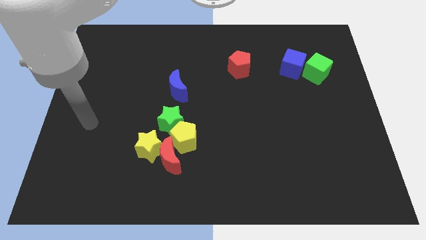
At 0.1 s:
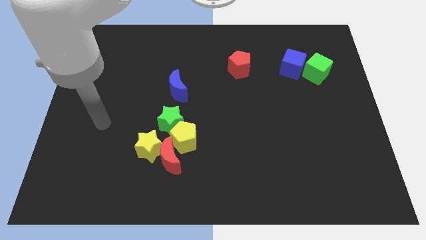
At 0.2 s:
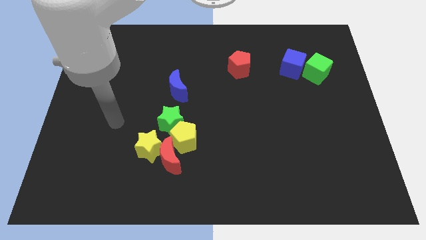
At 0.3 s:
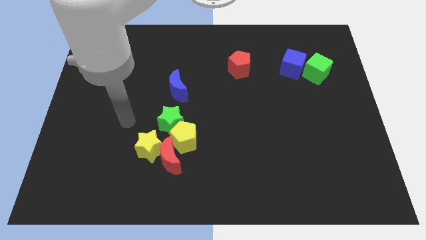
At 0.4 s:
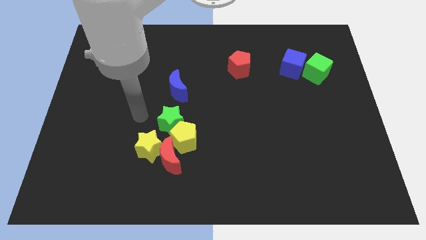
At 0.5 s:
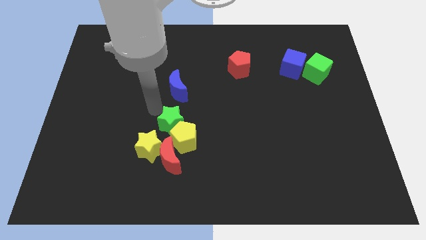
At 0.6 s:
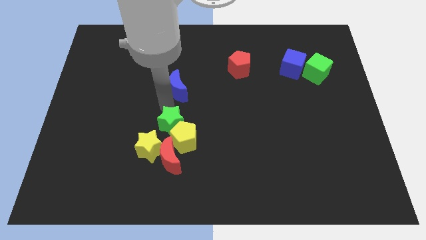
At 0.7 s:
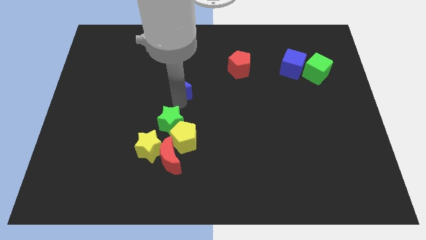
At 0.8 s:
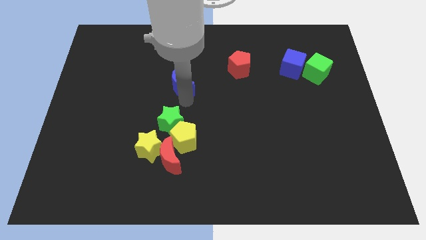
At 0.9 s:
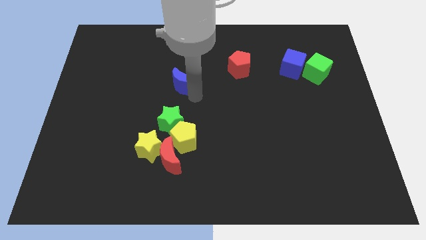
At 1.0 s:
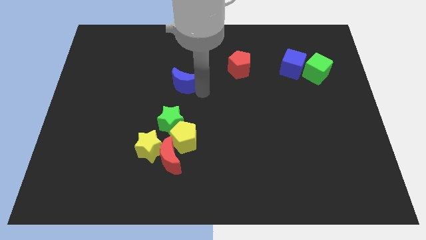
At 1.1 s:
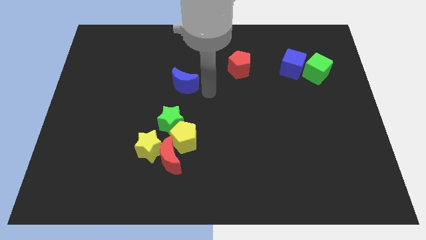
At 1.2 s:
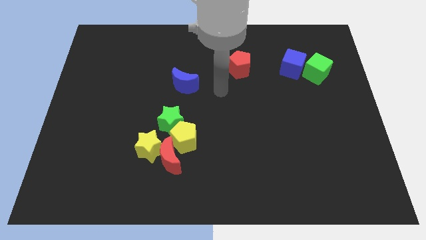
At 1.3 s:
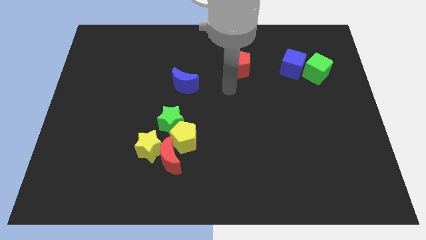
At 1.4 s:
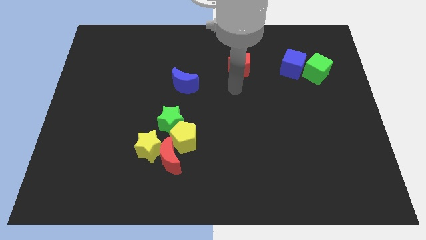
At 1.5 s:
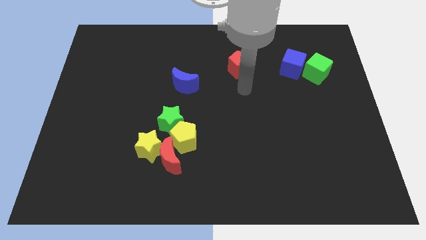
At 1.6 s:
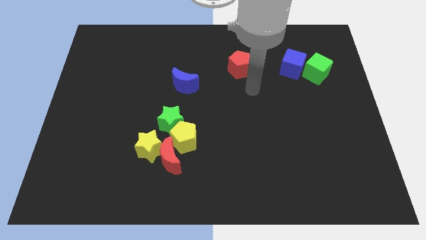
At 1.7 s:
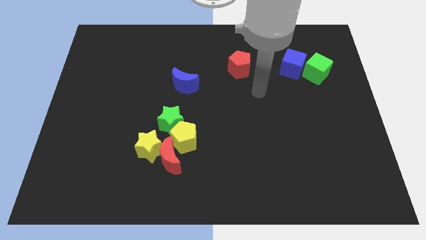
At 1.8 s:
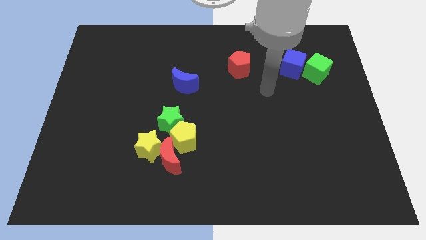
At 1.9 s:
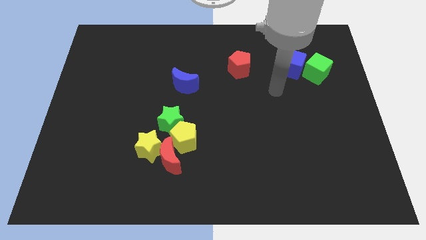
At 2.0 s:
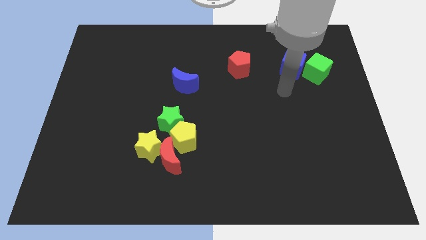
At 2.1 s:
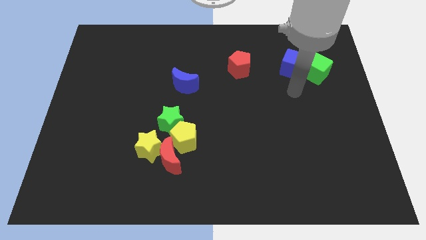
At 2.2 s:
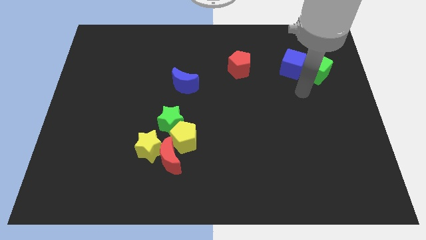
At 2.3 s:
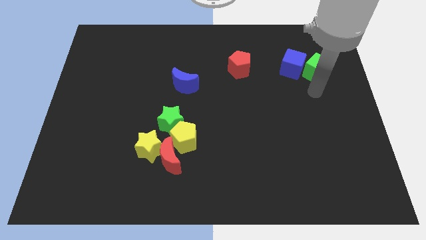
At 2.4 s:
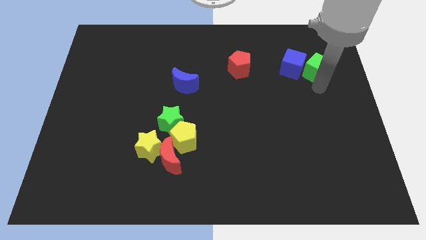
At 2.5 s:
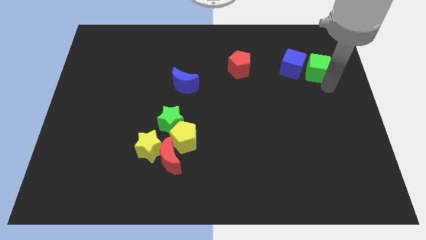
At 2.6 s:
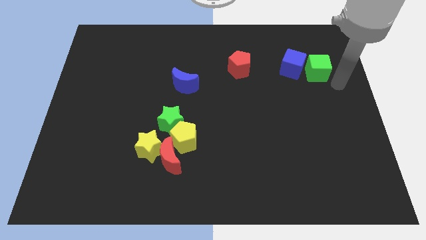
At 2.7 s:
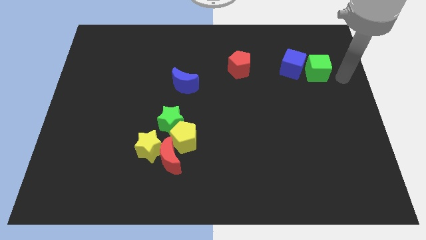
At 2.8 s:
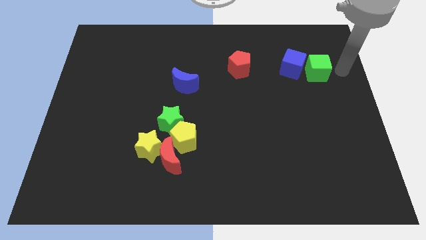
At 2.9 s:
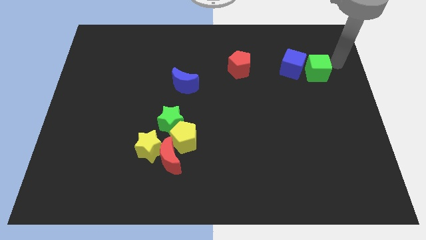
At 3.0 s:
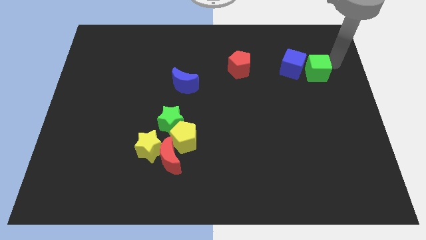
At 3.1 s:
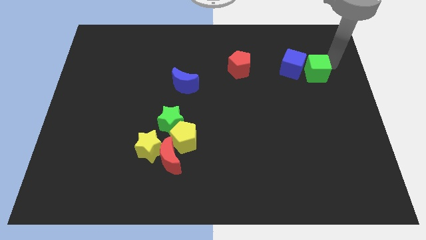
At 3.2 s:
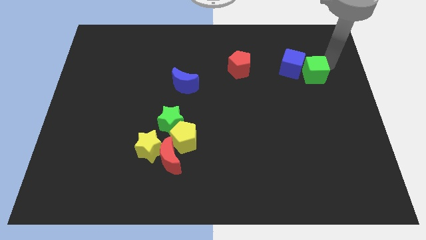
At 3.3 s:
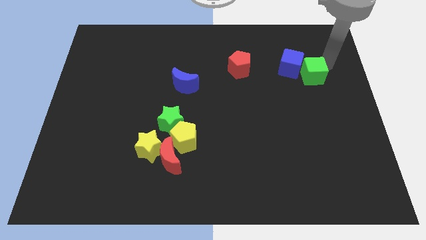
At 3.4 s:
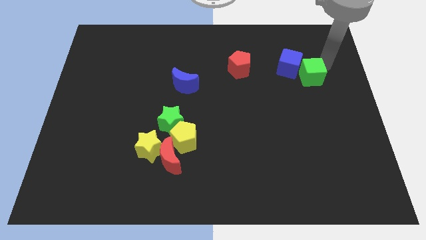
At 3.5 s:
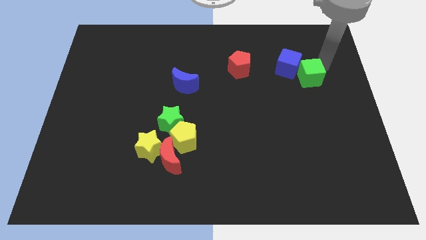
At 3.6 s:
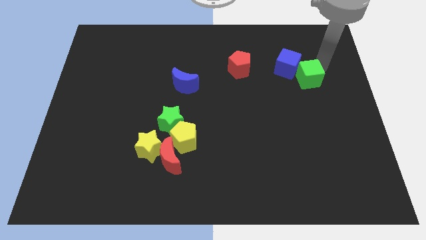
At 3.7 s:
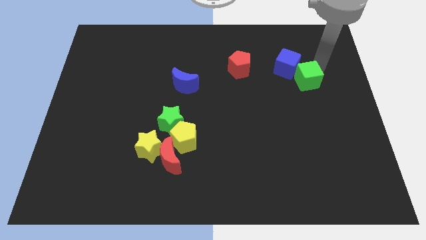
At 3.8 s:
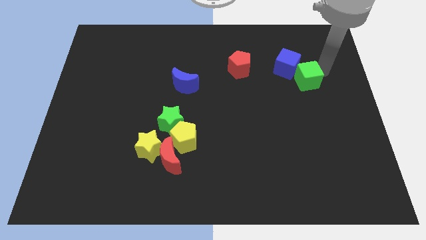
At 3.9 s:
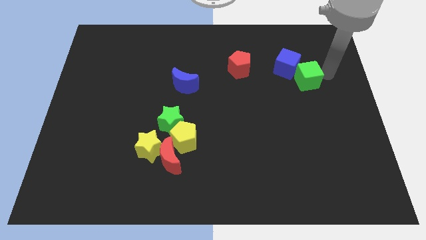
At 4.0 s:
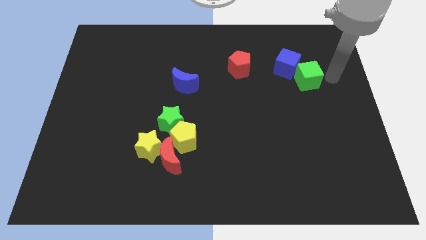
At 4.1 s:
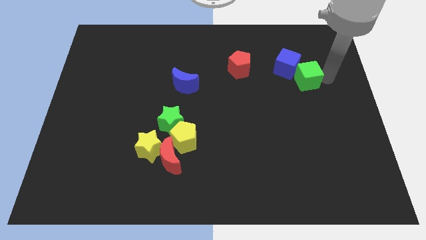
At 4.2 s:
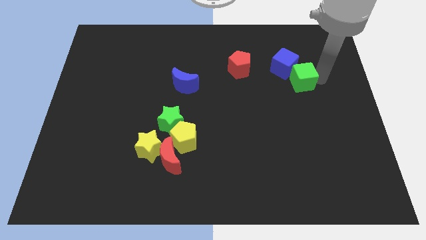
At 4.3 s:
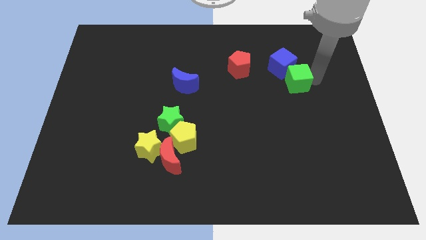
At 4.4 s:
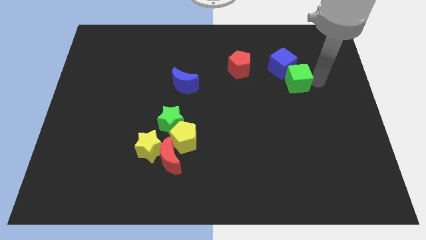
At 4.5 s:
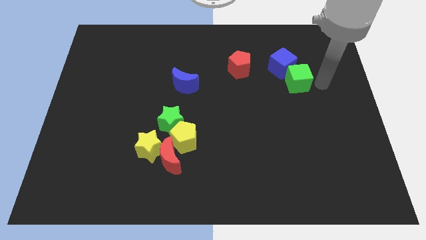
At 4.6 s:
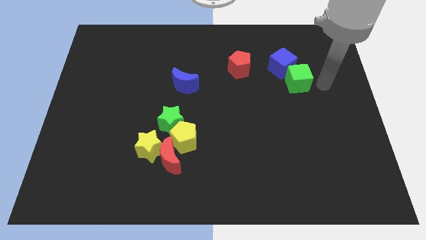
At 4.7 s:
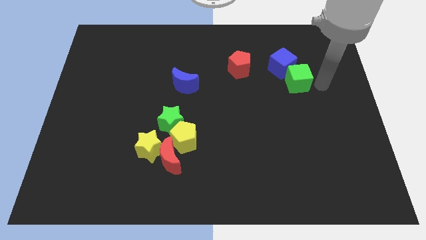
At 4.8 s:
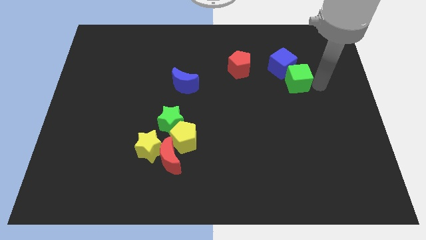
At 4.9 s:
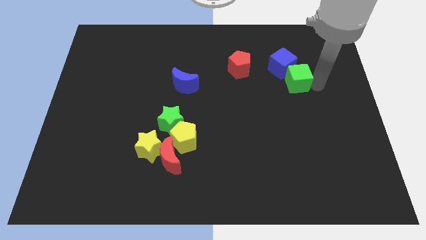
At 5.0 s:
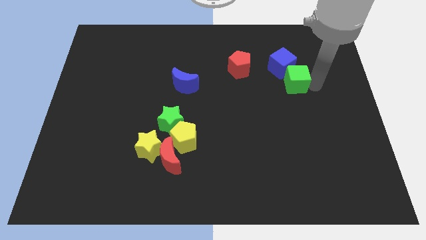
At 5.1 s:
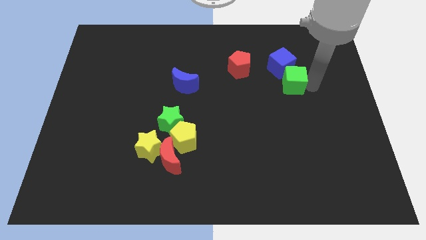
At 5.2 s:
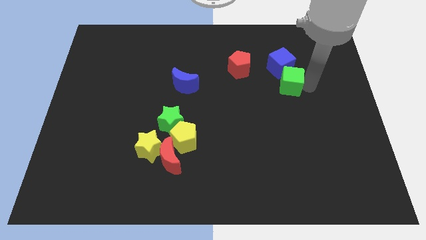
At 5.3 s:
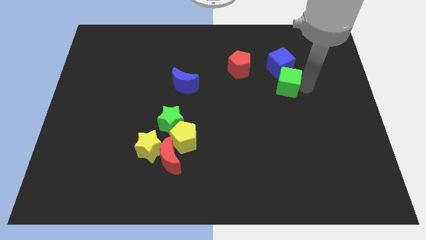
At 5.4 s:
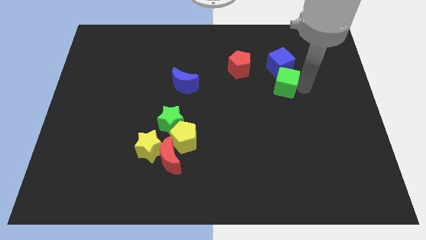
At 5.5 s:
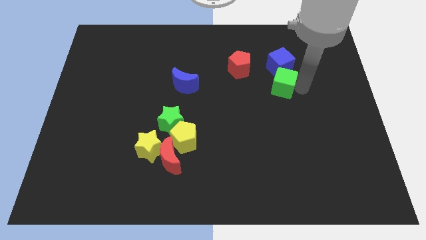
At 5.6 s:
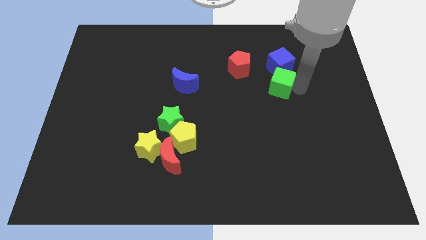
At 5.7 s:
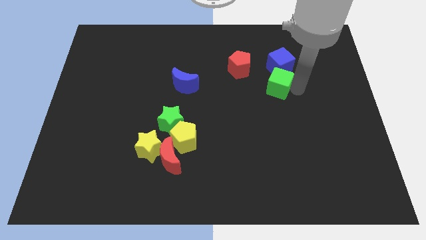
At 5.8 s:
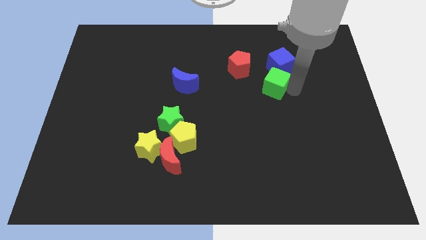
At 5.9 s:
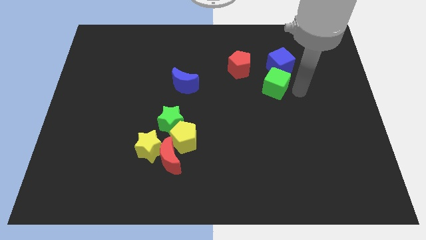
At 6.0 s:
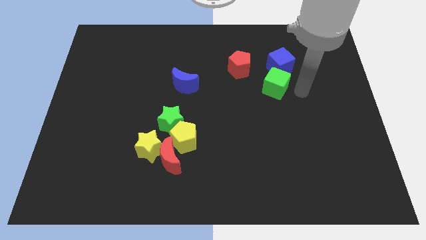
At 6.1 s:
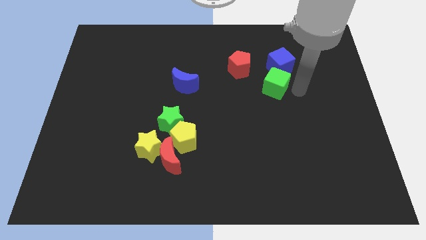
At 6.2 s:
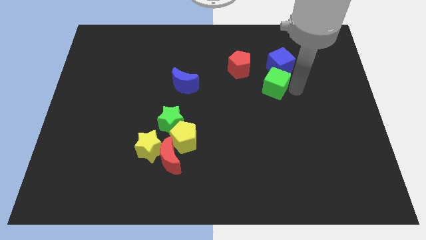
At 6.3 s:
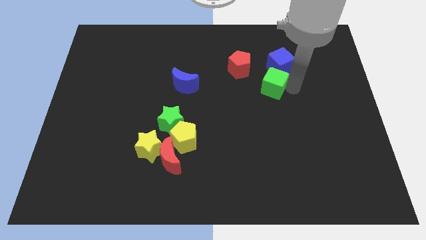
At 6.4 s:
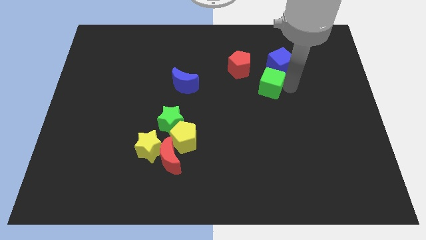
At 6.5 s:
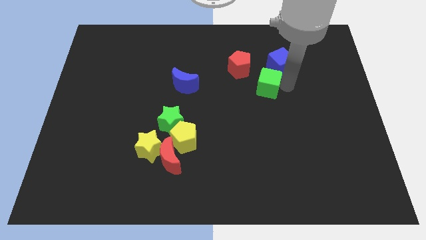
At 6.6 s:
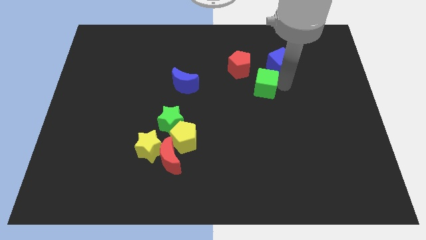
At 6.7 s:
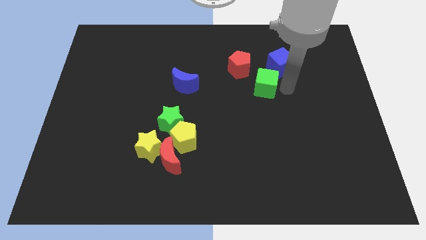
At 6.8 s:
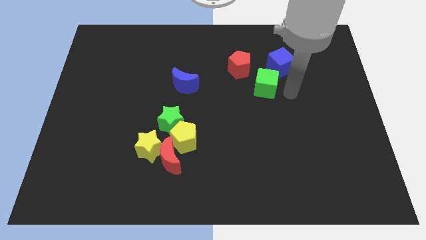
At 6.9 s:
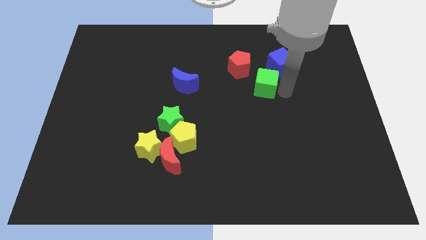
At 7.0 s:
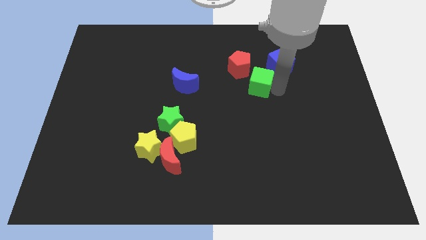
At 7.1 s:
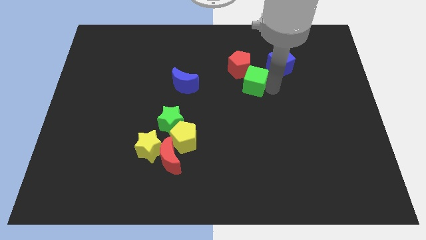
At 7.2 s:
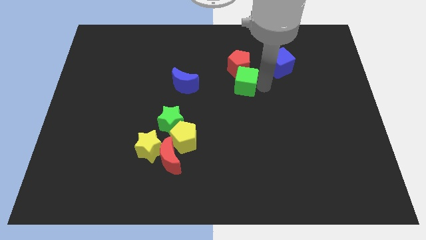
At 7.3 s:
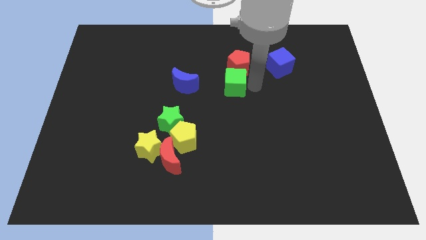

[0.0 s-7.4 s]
push the green cube to the left

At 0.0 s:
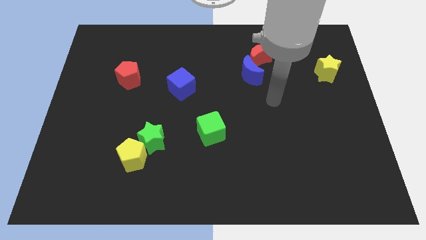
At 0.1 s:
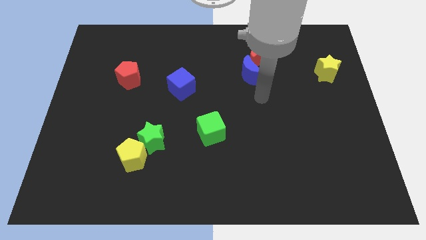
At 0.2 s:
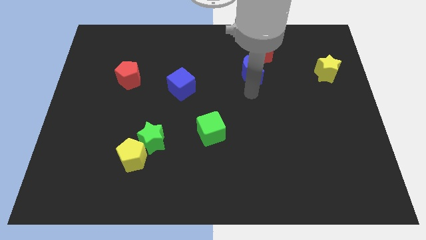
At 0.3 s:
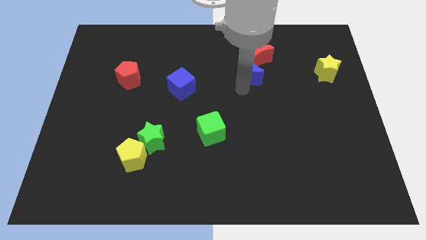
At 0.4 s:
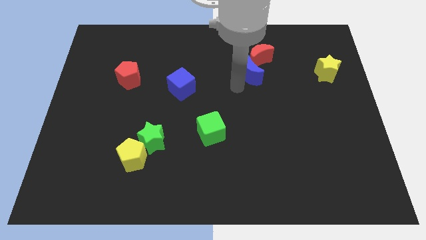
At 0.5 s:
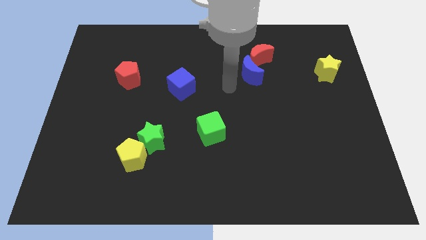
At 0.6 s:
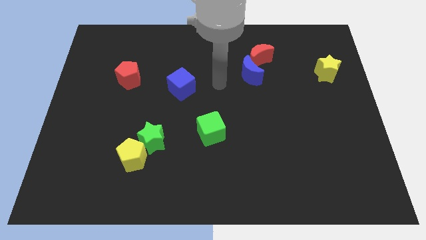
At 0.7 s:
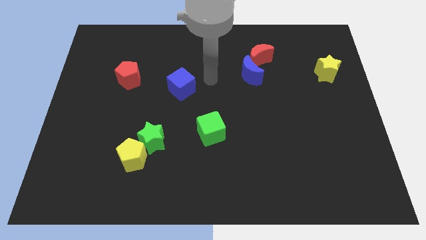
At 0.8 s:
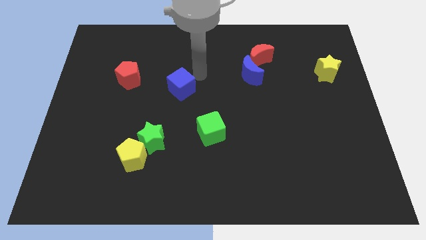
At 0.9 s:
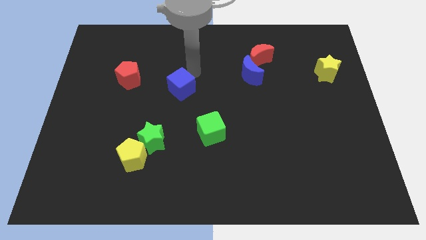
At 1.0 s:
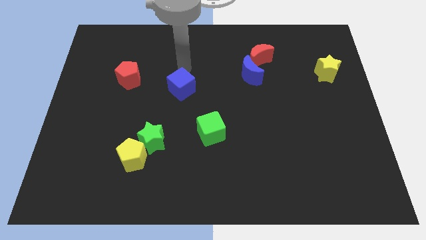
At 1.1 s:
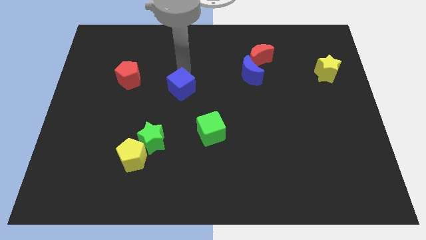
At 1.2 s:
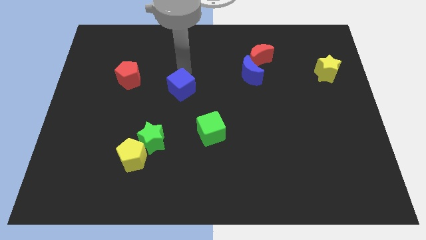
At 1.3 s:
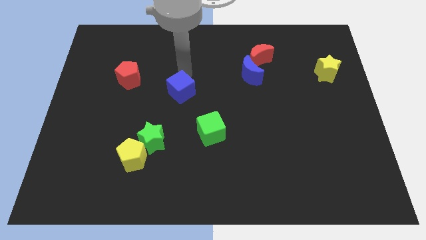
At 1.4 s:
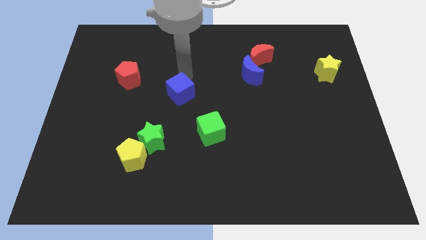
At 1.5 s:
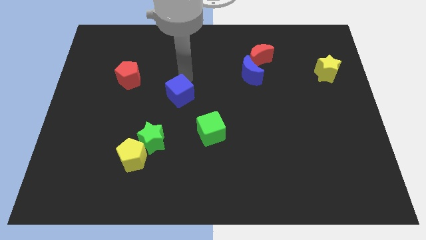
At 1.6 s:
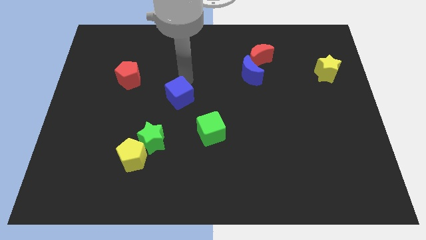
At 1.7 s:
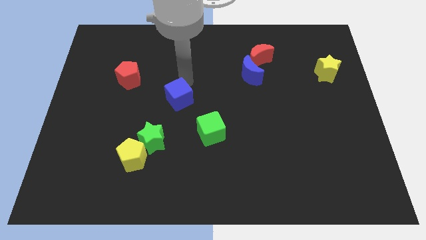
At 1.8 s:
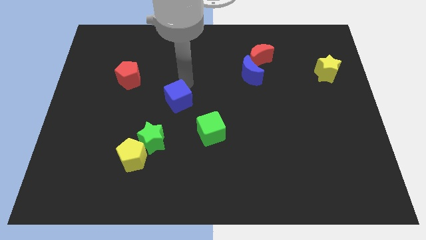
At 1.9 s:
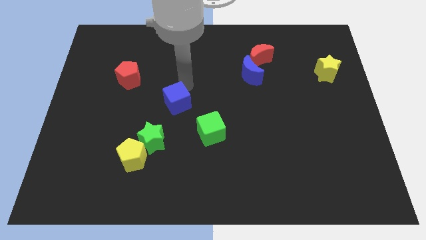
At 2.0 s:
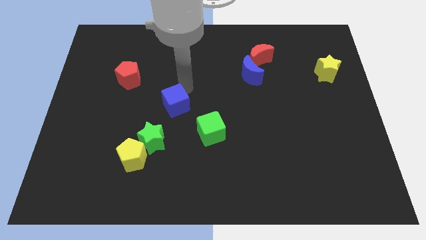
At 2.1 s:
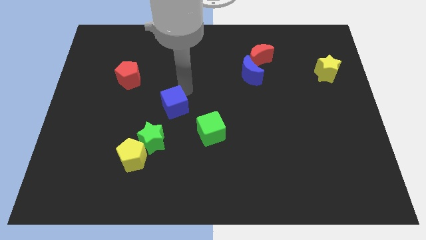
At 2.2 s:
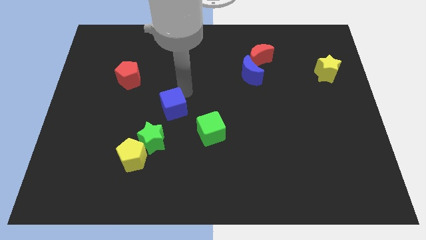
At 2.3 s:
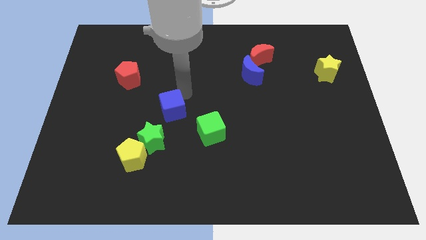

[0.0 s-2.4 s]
slightly push the blue cube downwards
